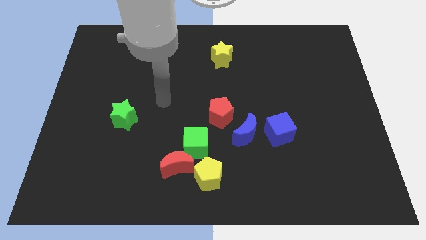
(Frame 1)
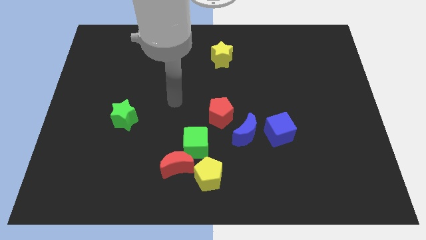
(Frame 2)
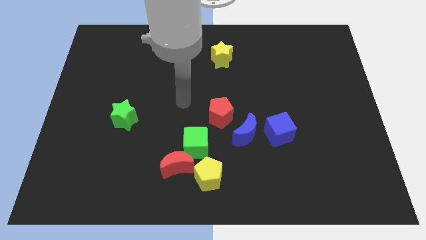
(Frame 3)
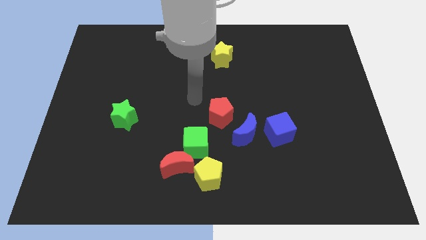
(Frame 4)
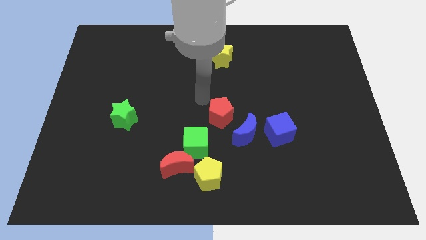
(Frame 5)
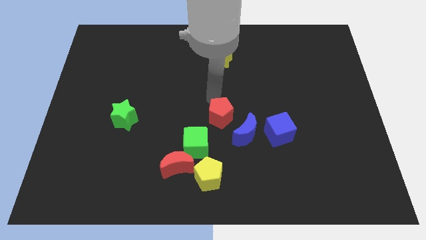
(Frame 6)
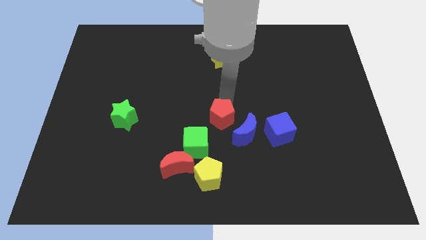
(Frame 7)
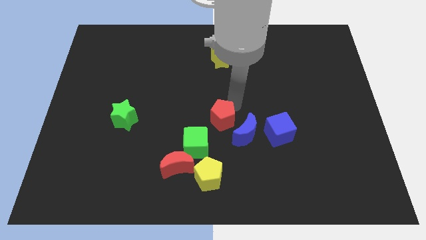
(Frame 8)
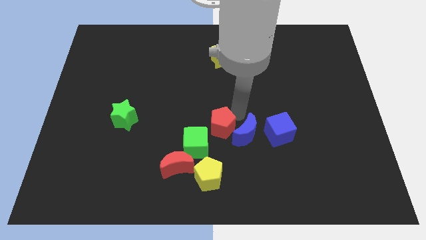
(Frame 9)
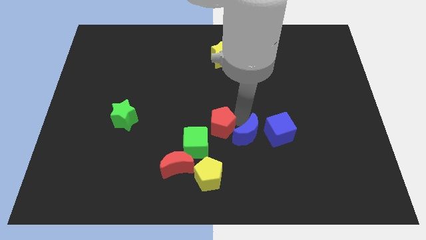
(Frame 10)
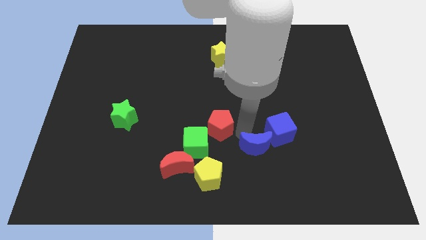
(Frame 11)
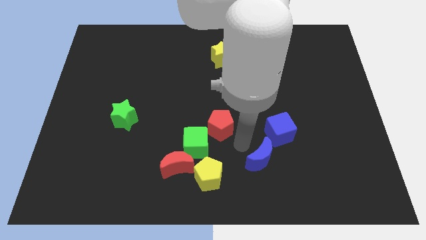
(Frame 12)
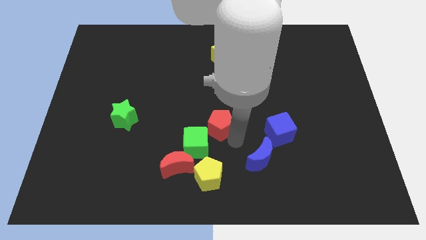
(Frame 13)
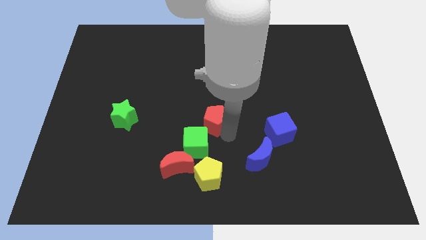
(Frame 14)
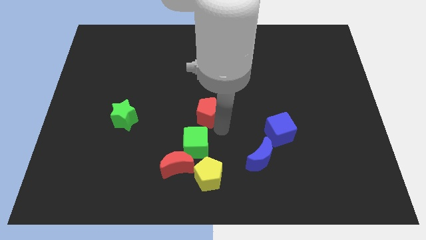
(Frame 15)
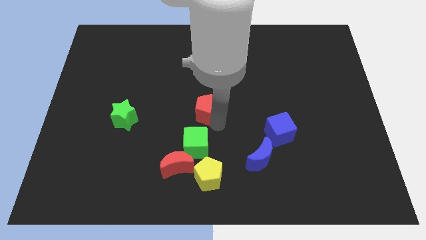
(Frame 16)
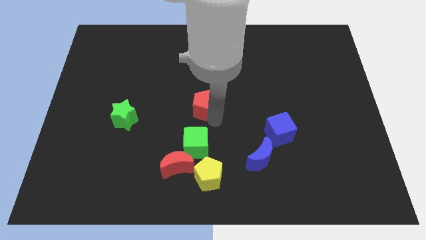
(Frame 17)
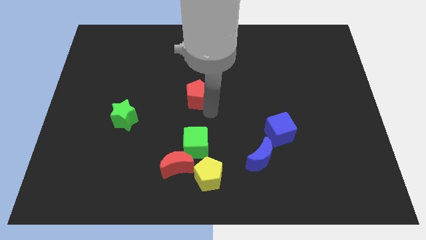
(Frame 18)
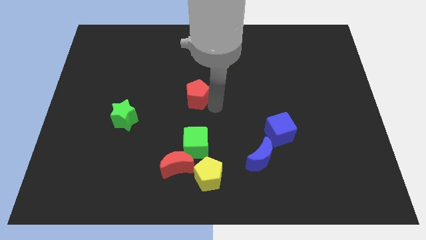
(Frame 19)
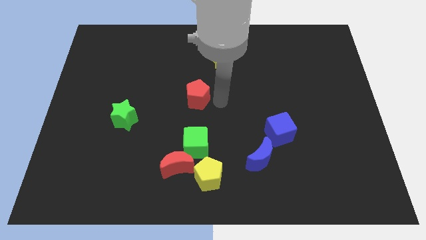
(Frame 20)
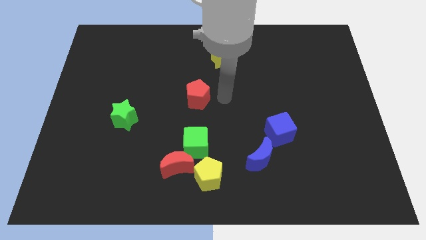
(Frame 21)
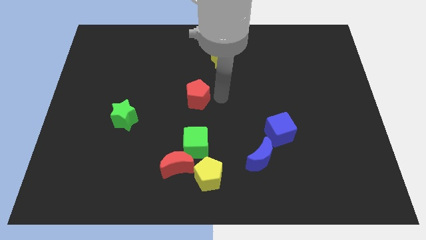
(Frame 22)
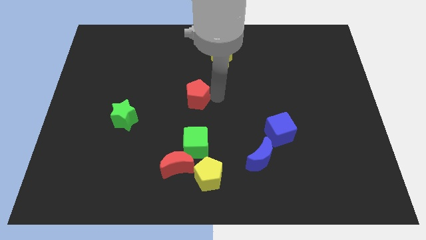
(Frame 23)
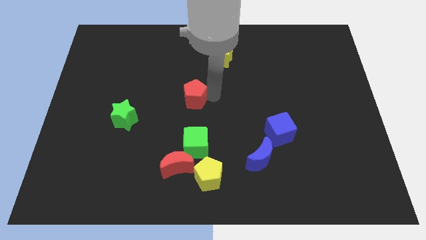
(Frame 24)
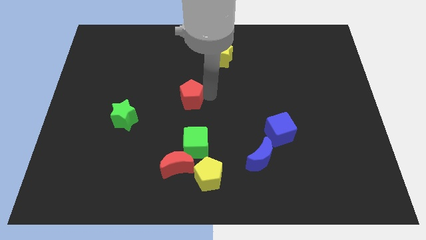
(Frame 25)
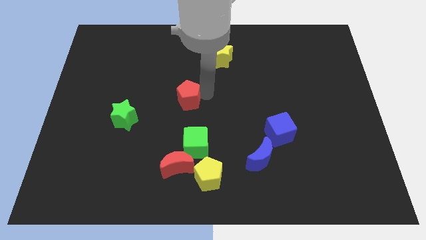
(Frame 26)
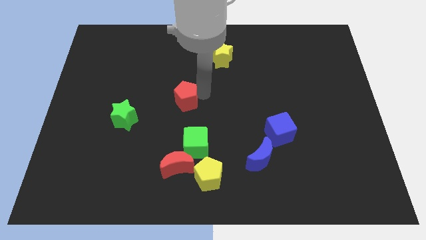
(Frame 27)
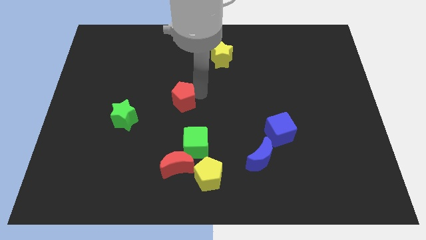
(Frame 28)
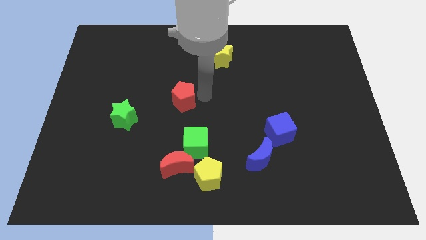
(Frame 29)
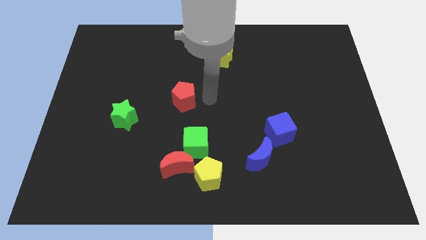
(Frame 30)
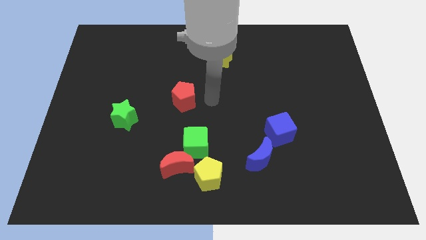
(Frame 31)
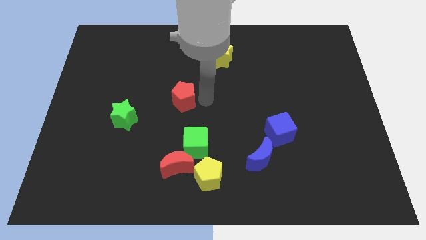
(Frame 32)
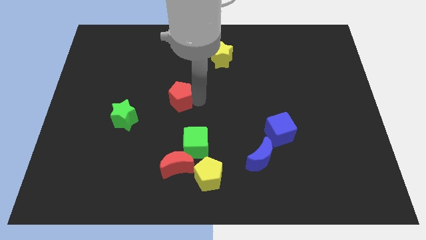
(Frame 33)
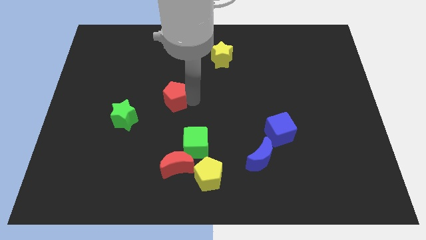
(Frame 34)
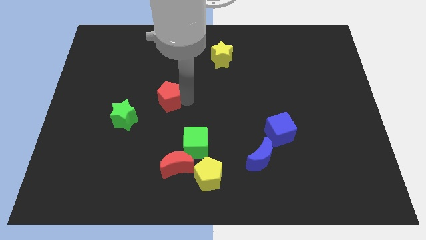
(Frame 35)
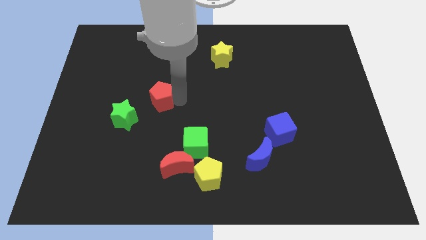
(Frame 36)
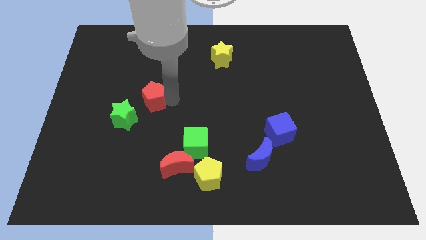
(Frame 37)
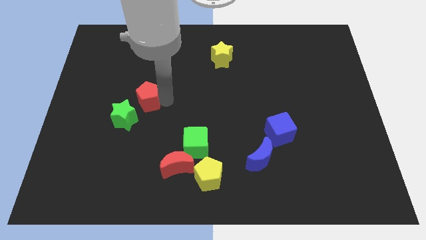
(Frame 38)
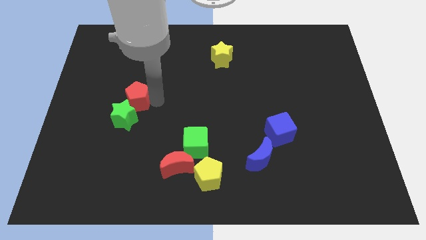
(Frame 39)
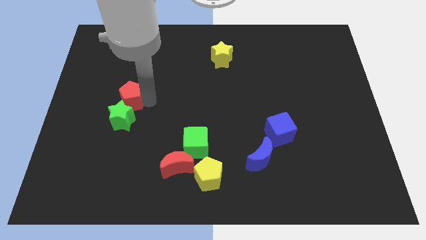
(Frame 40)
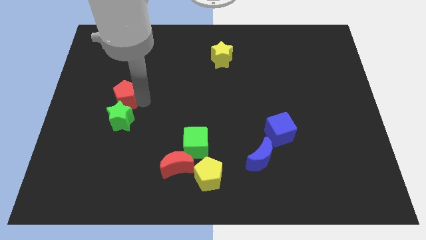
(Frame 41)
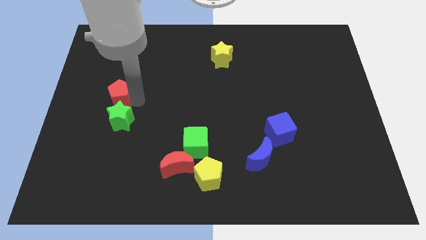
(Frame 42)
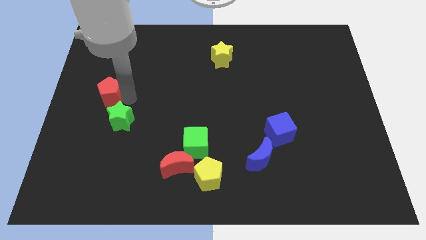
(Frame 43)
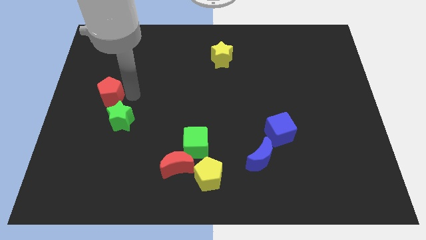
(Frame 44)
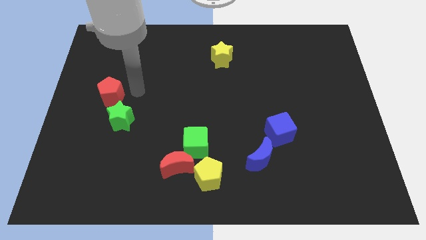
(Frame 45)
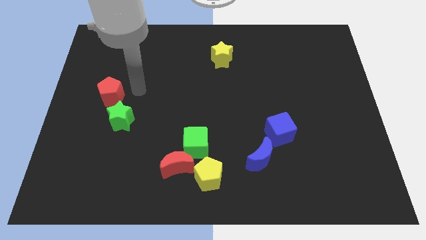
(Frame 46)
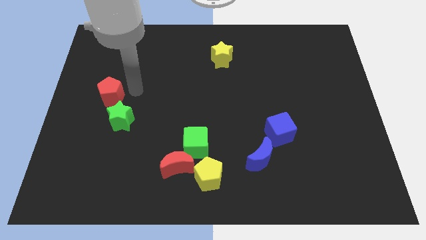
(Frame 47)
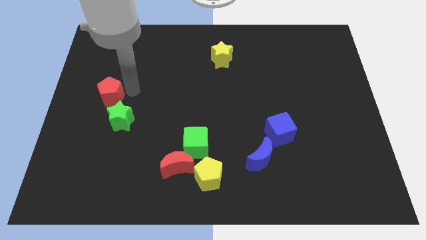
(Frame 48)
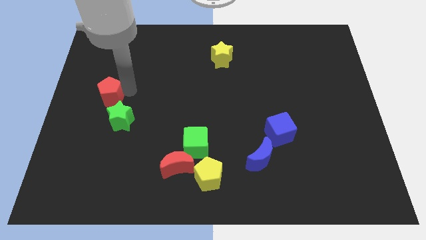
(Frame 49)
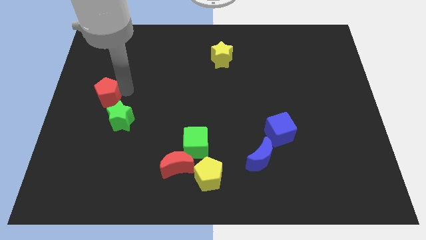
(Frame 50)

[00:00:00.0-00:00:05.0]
push the red pentagon to the center left

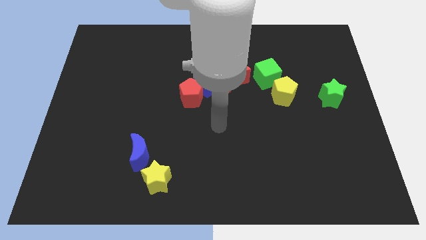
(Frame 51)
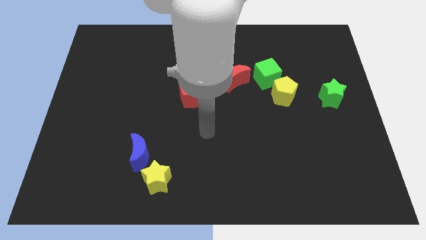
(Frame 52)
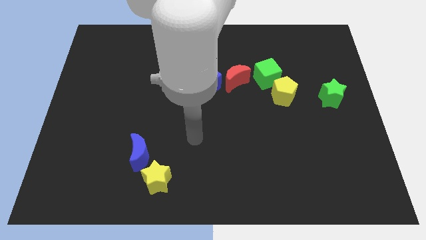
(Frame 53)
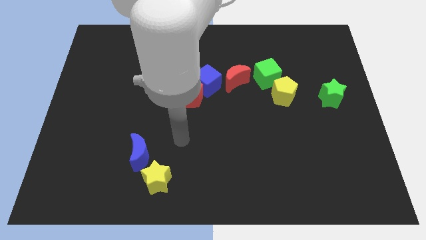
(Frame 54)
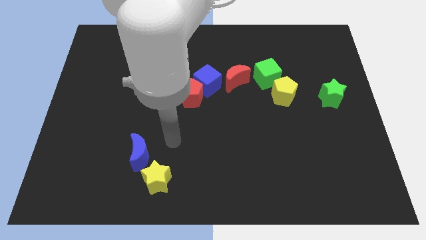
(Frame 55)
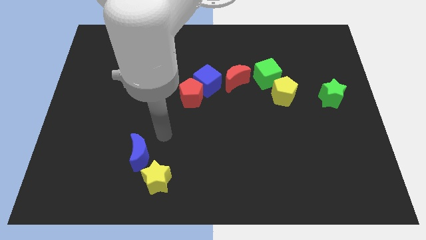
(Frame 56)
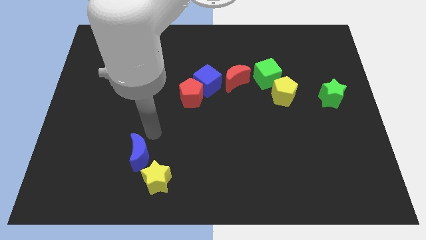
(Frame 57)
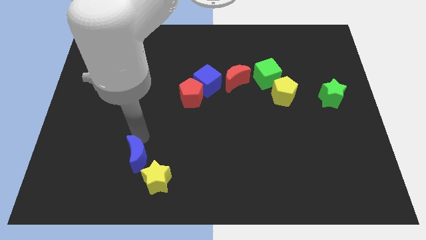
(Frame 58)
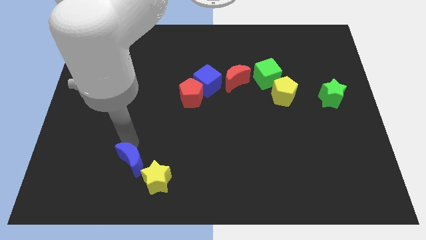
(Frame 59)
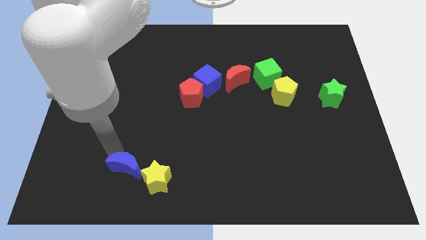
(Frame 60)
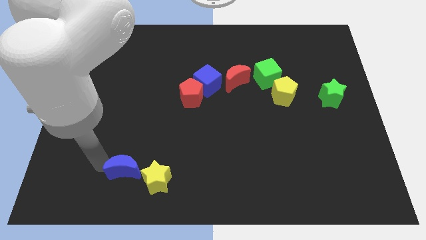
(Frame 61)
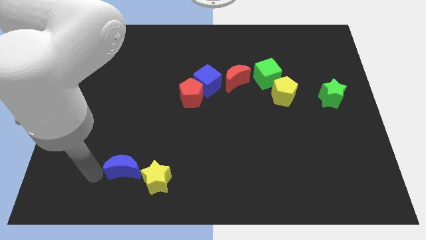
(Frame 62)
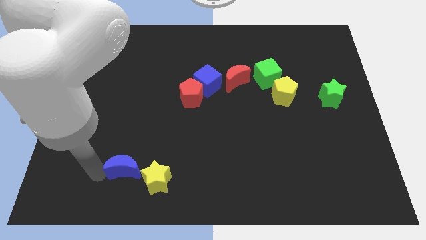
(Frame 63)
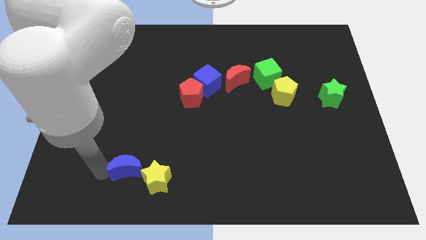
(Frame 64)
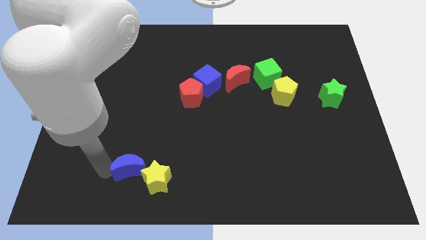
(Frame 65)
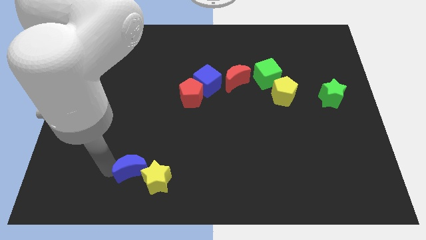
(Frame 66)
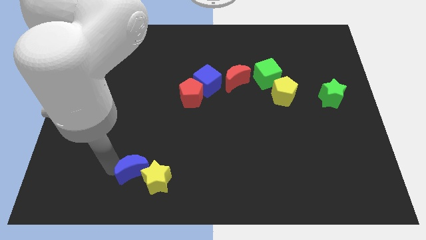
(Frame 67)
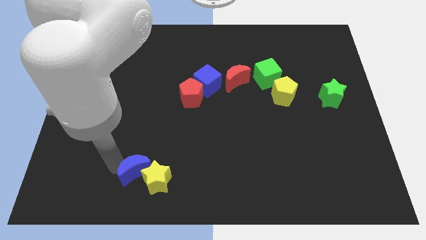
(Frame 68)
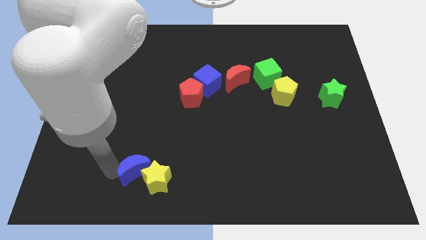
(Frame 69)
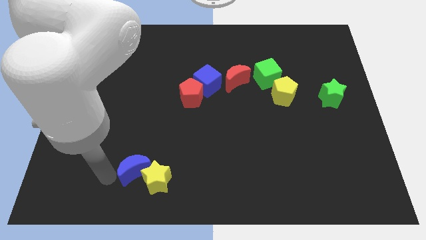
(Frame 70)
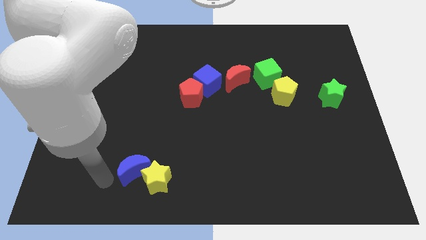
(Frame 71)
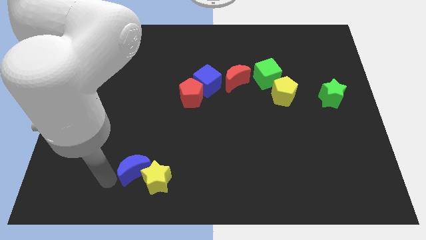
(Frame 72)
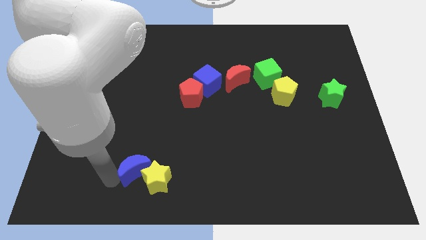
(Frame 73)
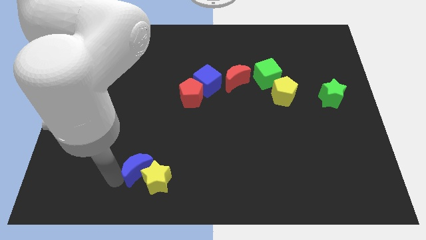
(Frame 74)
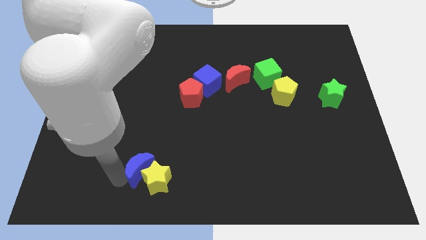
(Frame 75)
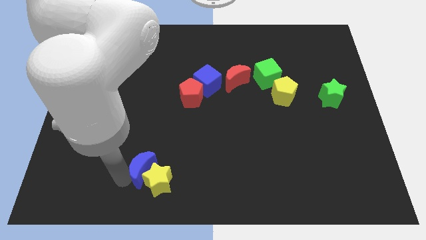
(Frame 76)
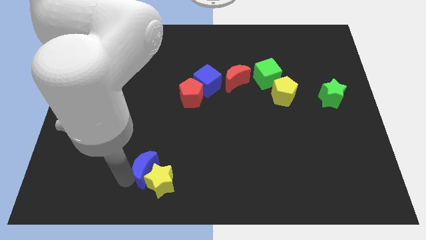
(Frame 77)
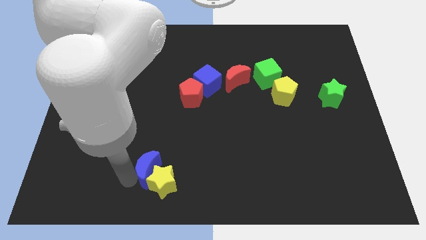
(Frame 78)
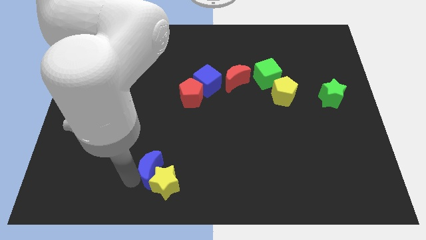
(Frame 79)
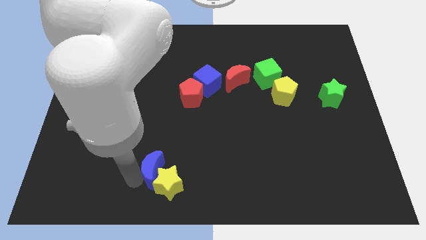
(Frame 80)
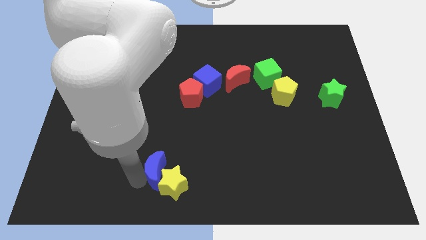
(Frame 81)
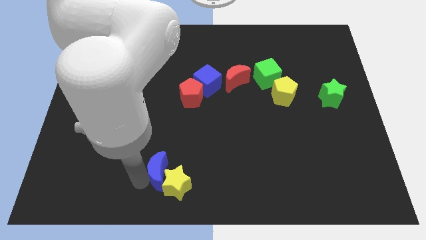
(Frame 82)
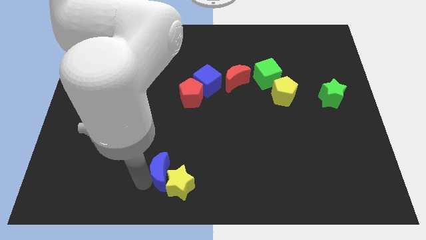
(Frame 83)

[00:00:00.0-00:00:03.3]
move the blue moon to the bottom
